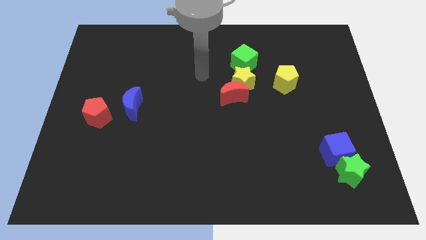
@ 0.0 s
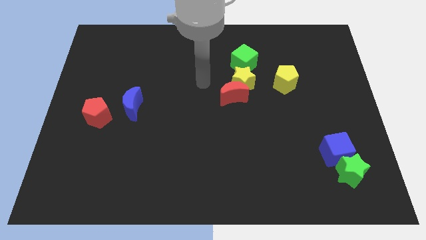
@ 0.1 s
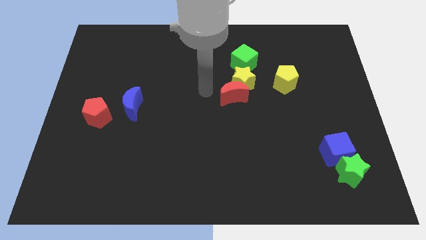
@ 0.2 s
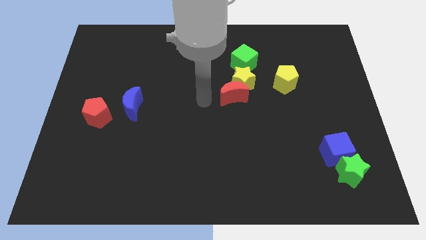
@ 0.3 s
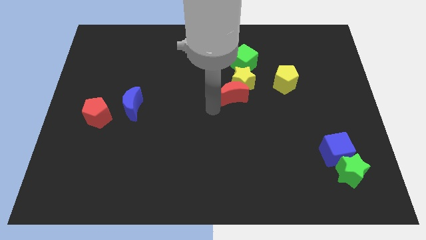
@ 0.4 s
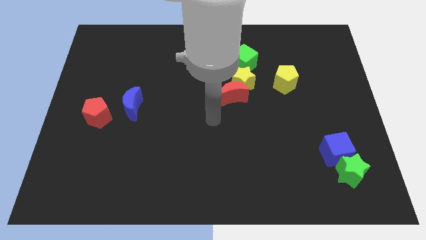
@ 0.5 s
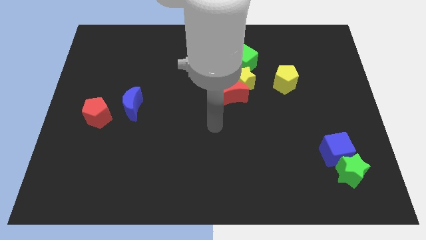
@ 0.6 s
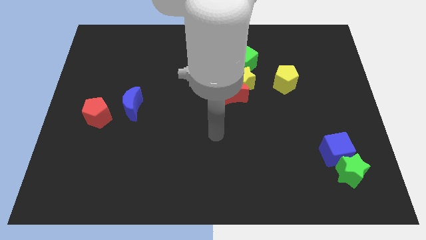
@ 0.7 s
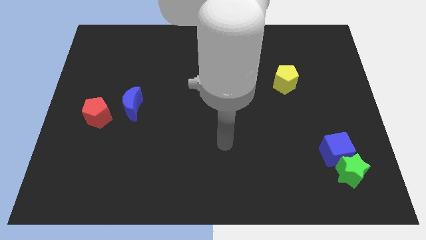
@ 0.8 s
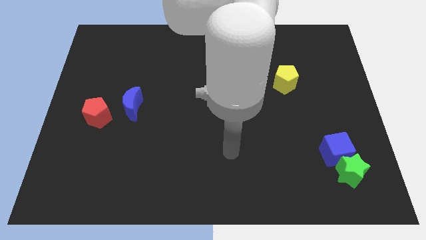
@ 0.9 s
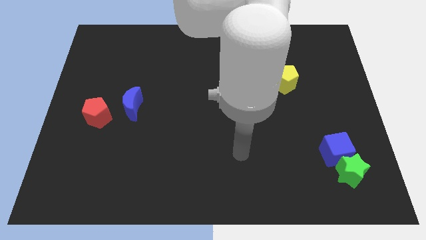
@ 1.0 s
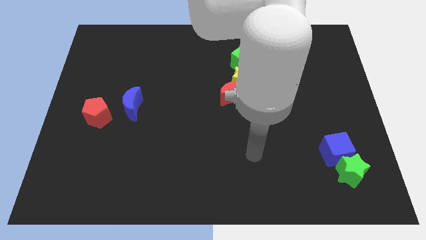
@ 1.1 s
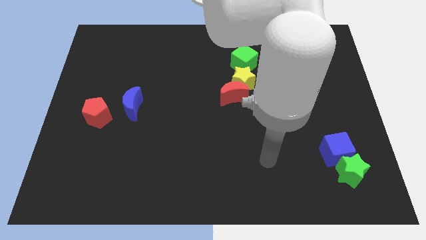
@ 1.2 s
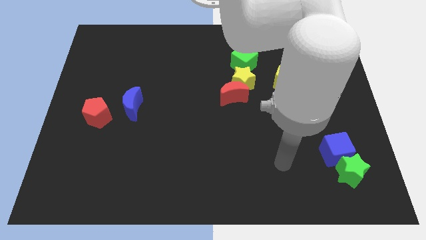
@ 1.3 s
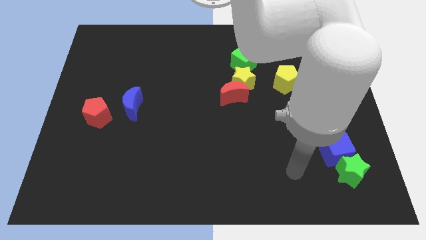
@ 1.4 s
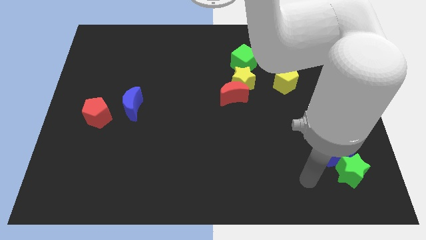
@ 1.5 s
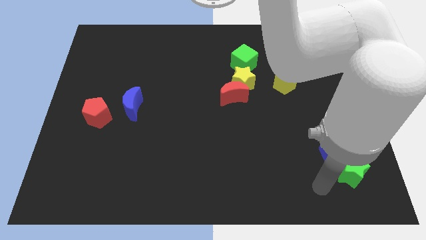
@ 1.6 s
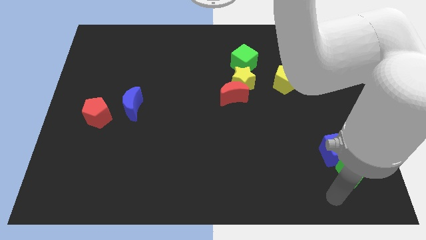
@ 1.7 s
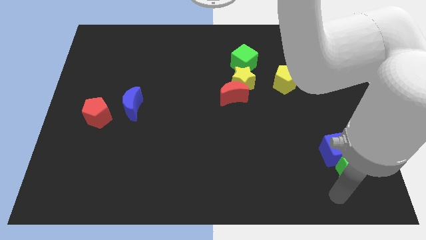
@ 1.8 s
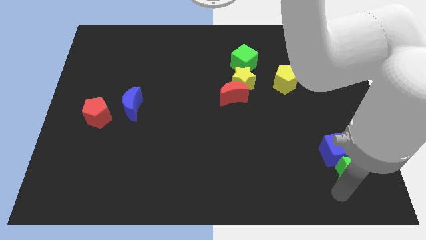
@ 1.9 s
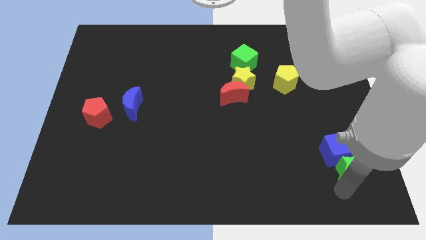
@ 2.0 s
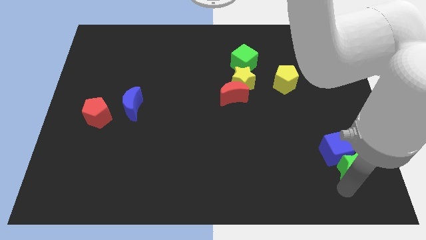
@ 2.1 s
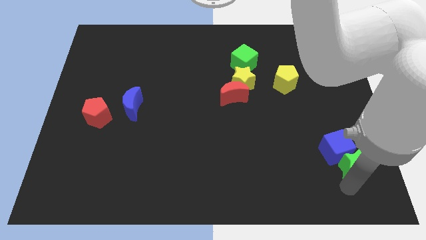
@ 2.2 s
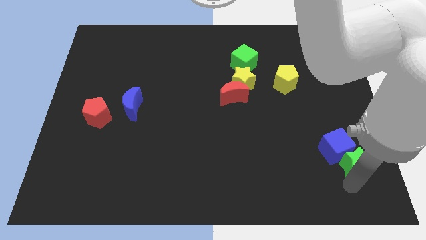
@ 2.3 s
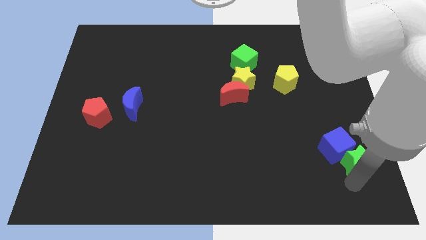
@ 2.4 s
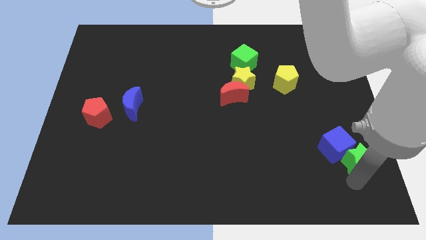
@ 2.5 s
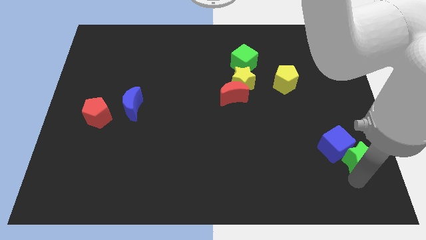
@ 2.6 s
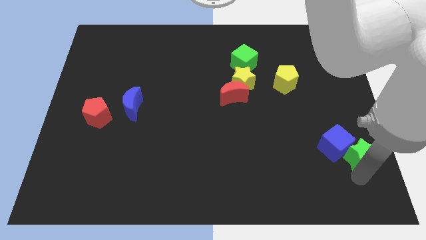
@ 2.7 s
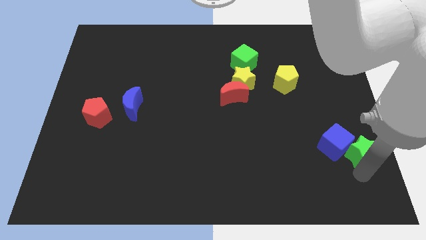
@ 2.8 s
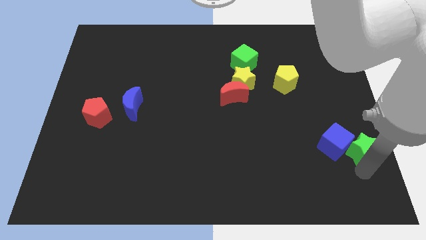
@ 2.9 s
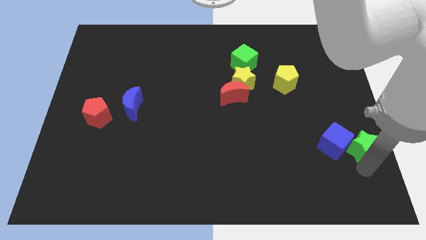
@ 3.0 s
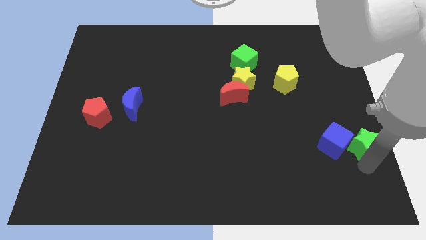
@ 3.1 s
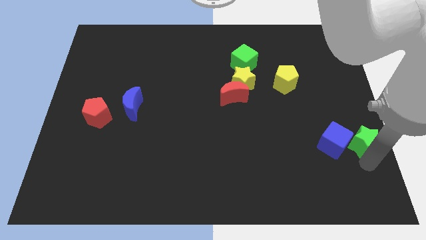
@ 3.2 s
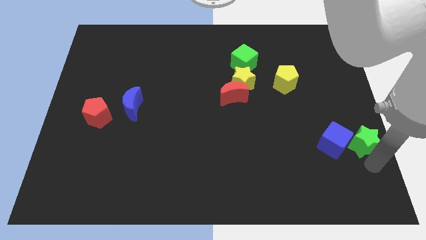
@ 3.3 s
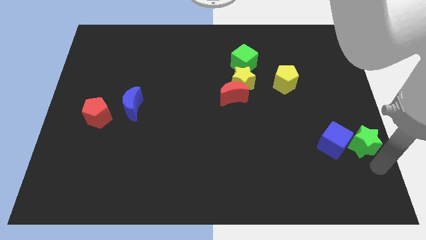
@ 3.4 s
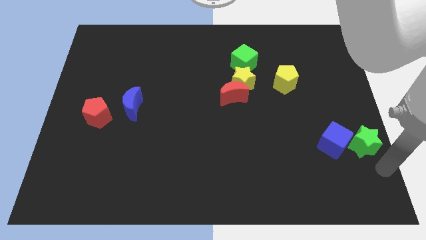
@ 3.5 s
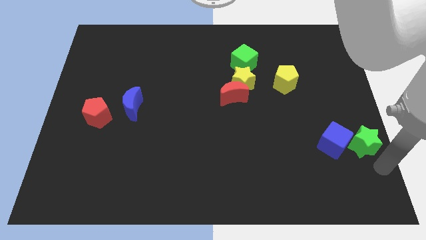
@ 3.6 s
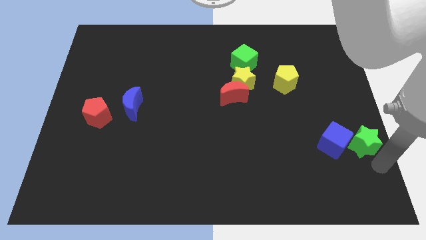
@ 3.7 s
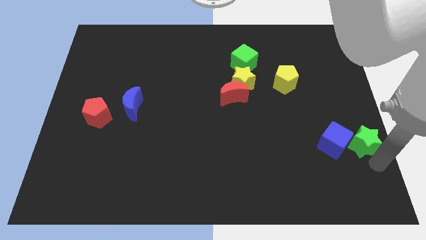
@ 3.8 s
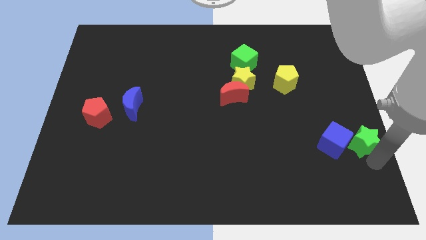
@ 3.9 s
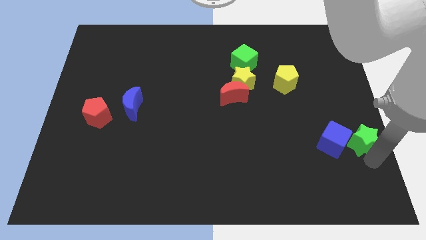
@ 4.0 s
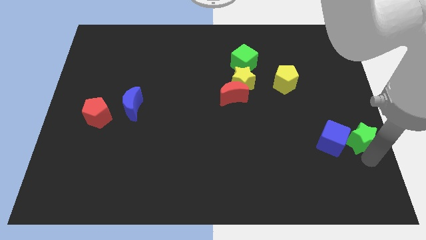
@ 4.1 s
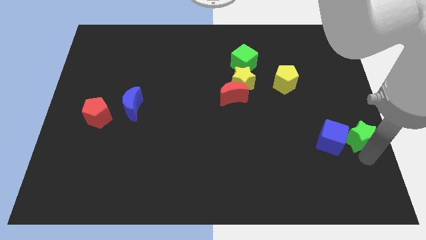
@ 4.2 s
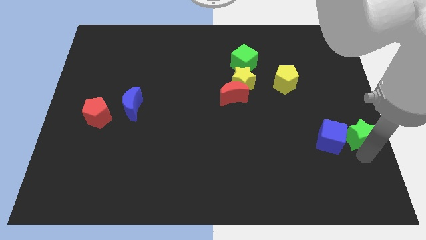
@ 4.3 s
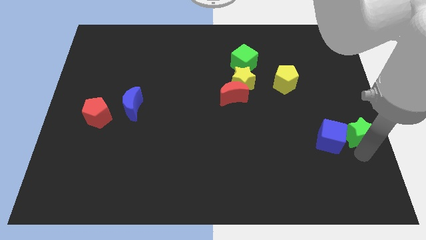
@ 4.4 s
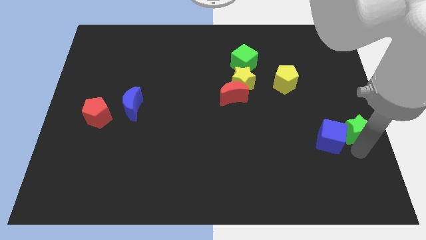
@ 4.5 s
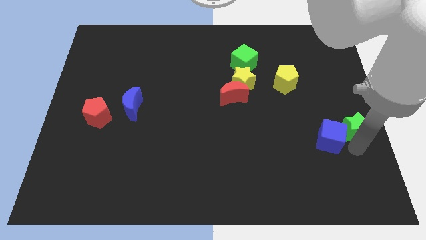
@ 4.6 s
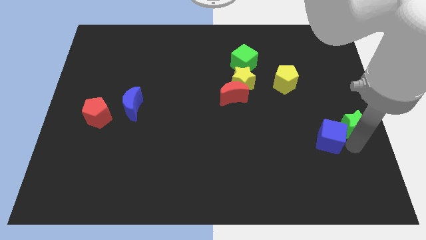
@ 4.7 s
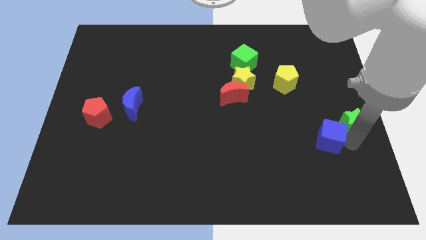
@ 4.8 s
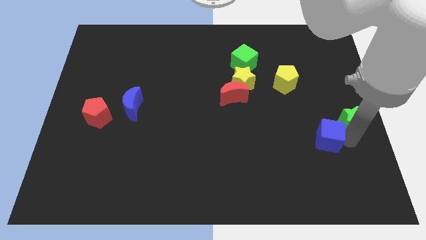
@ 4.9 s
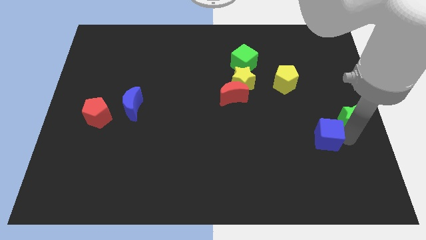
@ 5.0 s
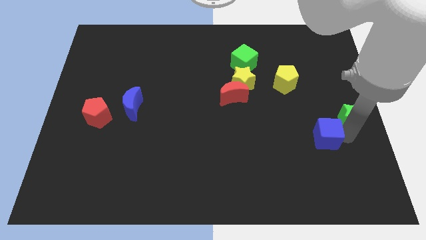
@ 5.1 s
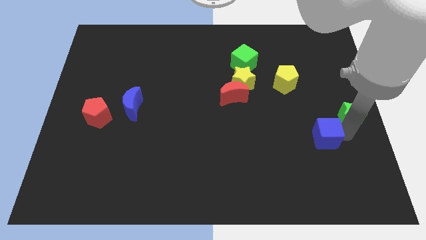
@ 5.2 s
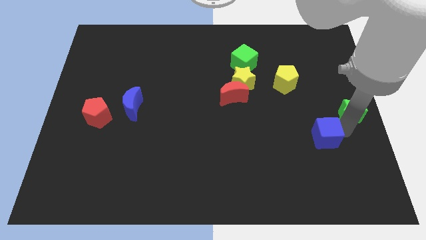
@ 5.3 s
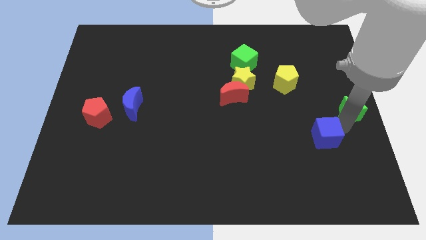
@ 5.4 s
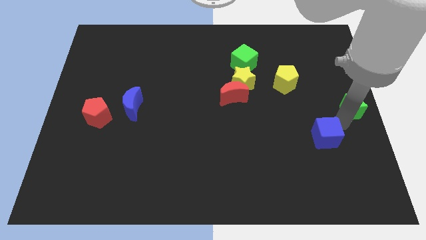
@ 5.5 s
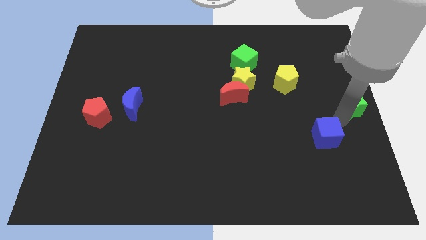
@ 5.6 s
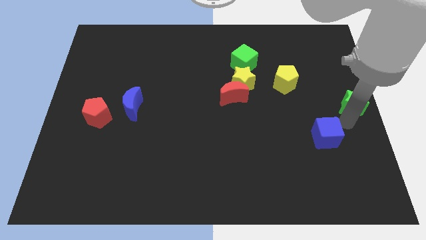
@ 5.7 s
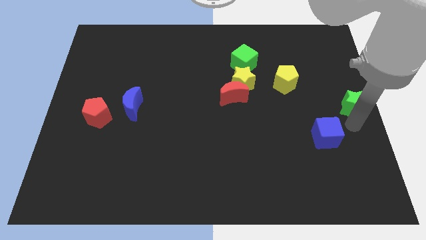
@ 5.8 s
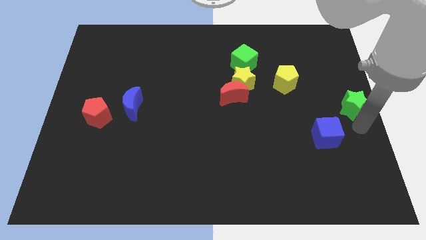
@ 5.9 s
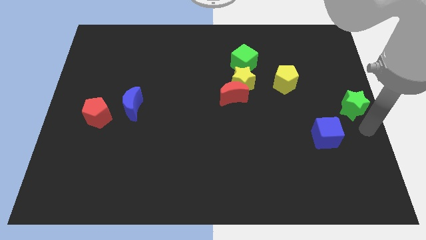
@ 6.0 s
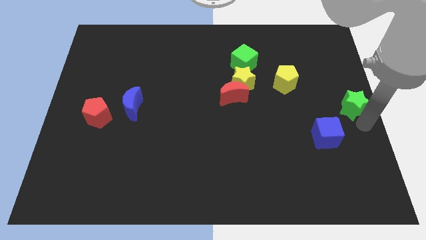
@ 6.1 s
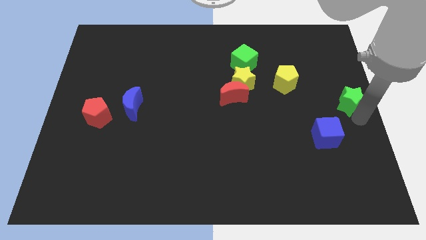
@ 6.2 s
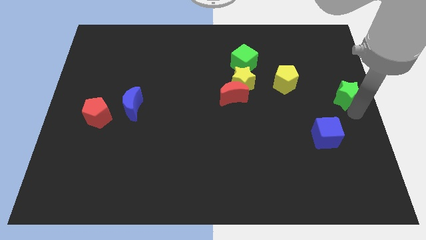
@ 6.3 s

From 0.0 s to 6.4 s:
push the green star upwards

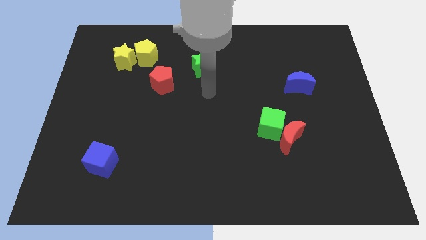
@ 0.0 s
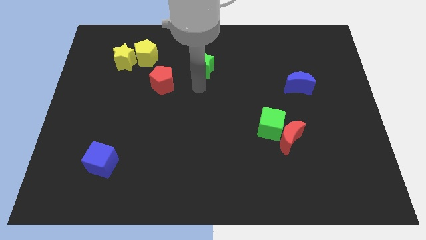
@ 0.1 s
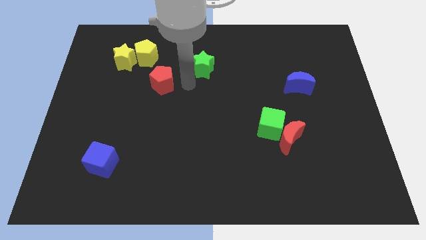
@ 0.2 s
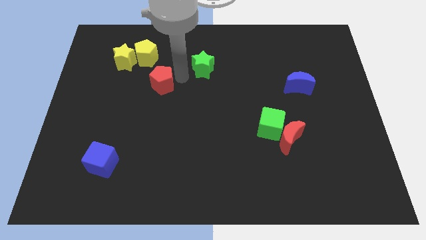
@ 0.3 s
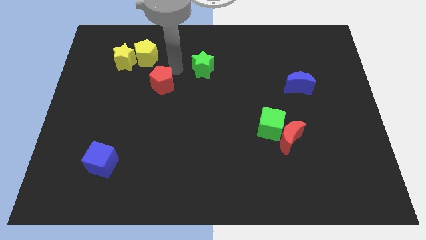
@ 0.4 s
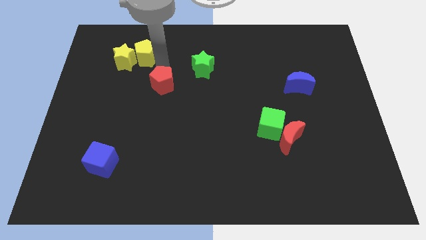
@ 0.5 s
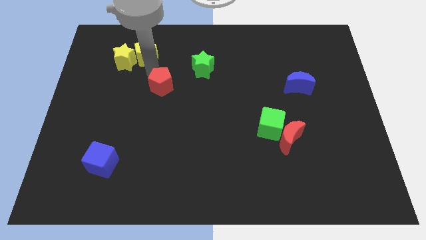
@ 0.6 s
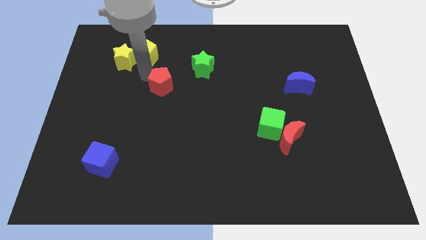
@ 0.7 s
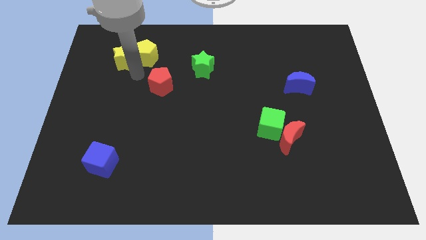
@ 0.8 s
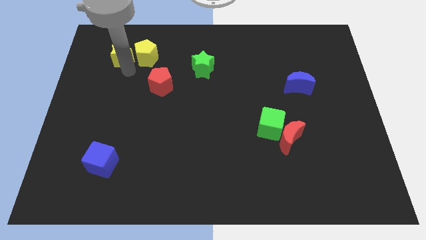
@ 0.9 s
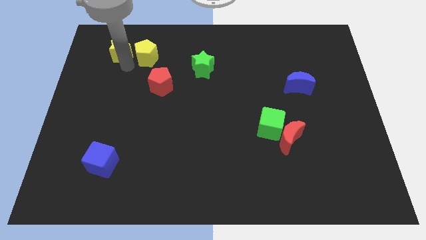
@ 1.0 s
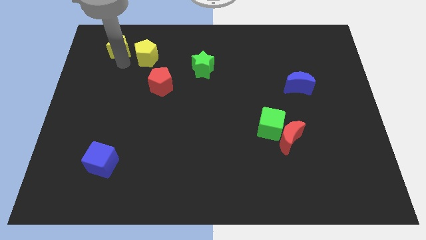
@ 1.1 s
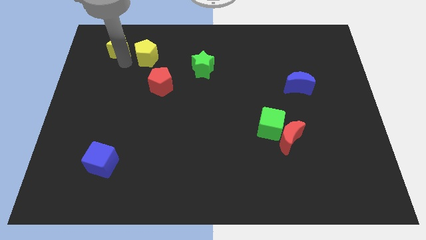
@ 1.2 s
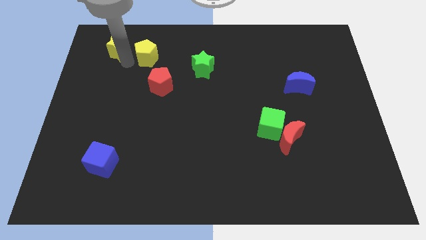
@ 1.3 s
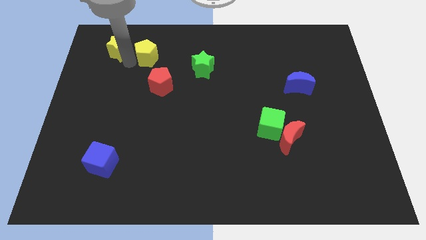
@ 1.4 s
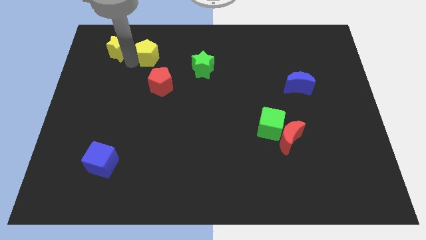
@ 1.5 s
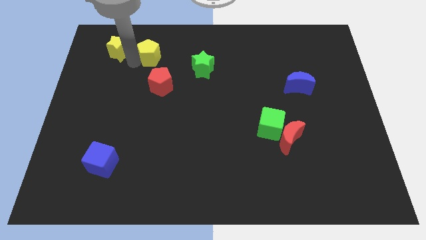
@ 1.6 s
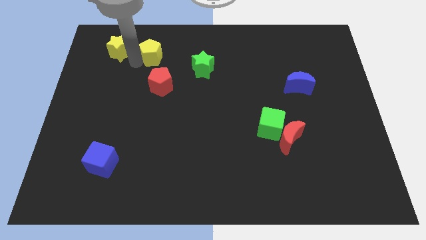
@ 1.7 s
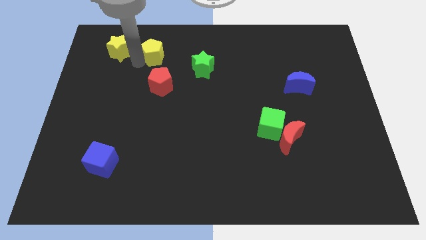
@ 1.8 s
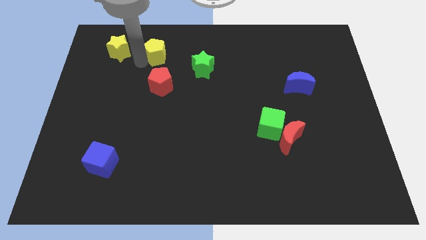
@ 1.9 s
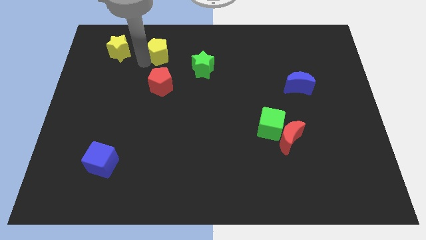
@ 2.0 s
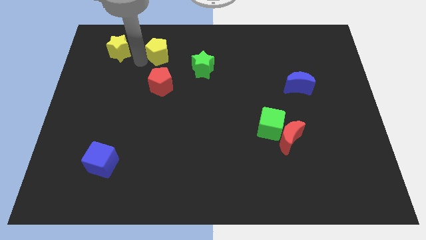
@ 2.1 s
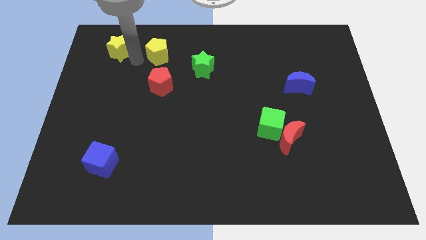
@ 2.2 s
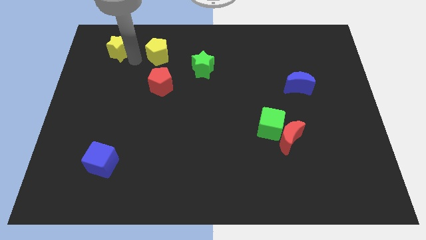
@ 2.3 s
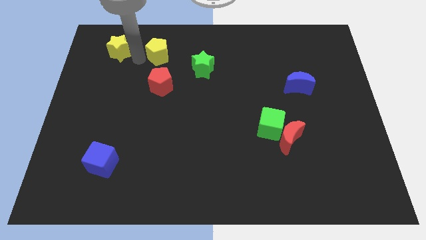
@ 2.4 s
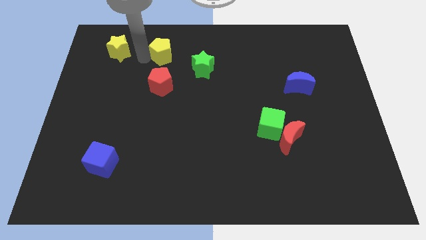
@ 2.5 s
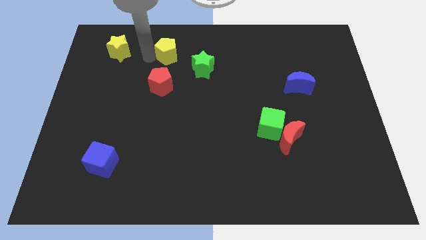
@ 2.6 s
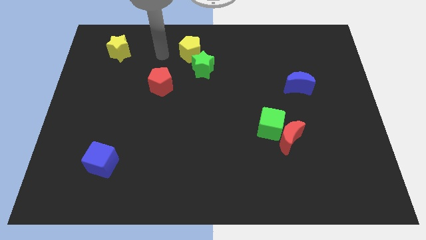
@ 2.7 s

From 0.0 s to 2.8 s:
slightly move the yellow pentagon right
